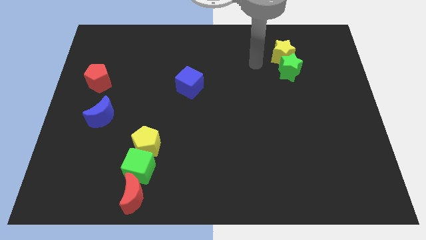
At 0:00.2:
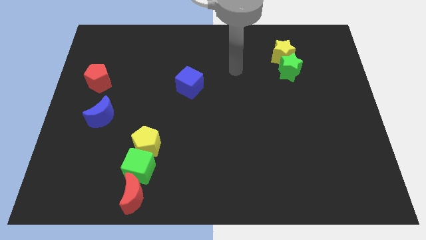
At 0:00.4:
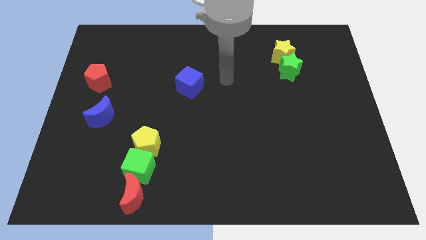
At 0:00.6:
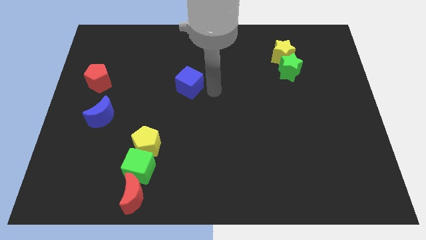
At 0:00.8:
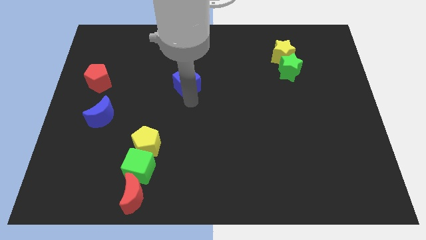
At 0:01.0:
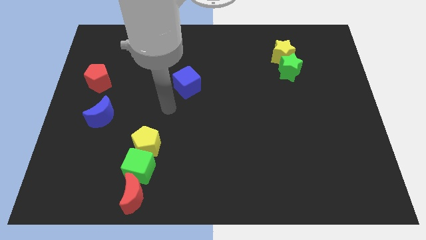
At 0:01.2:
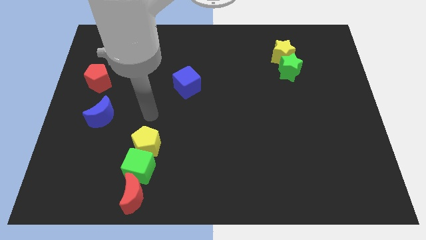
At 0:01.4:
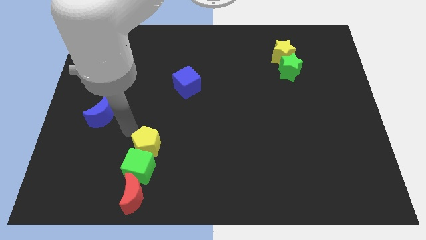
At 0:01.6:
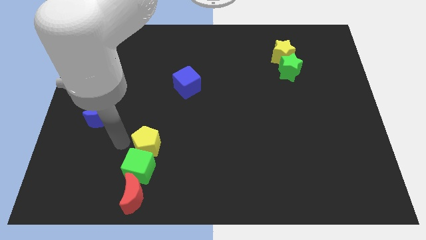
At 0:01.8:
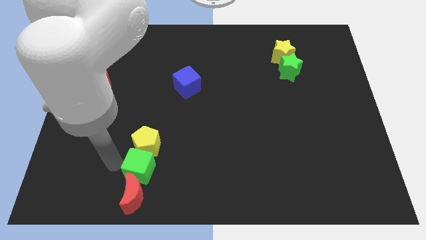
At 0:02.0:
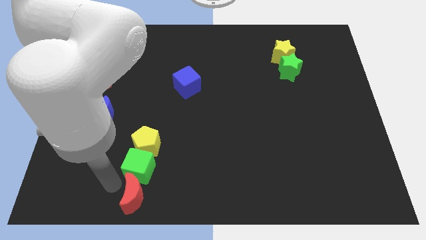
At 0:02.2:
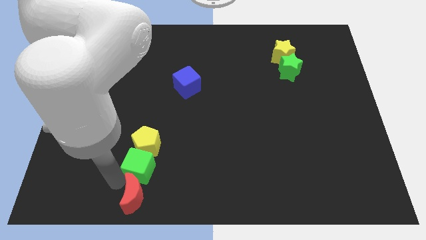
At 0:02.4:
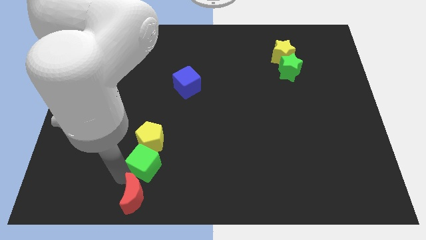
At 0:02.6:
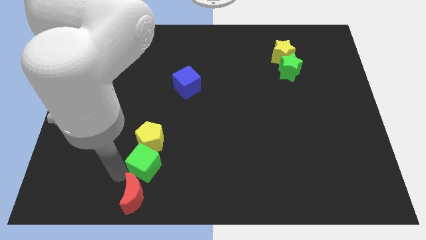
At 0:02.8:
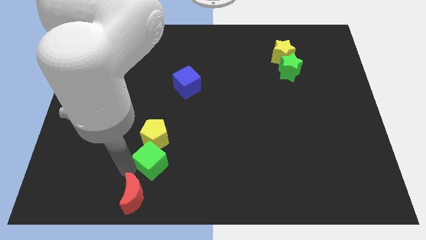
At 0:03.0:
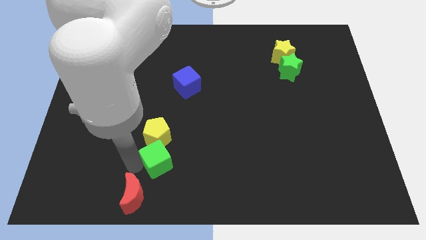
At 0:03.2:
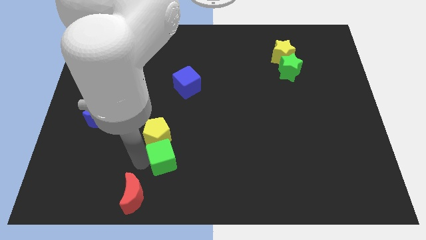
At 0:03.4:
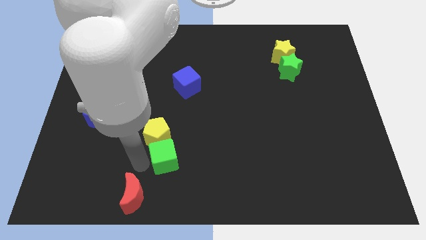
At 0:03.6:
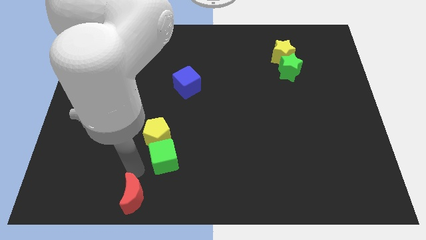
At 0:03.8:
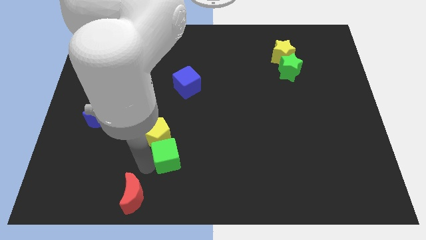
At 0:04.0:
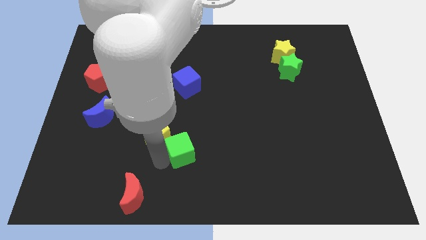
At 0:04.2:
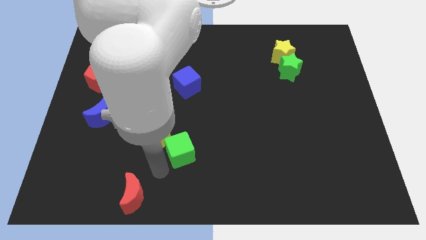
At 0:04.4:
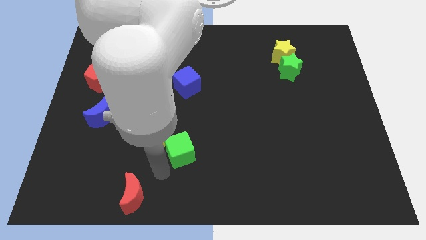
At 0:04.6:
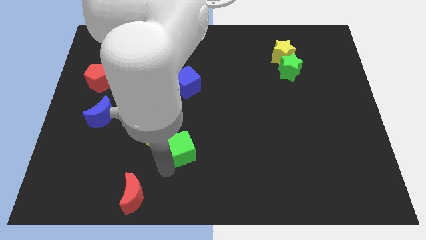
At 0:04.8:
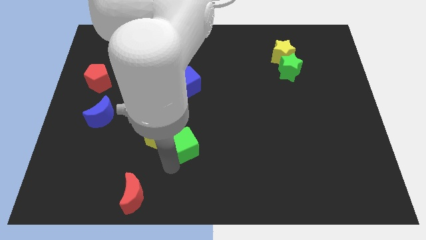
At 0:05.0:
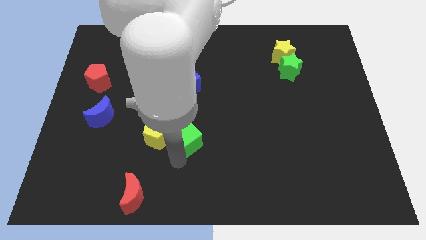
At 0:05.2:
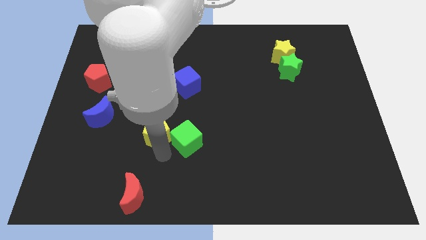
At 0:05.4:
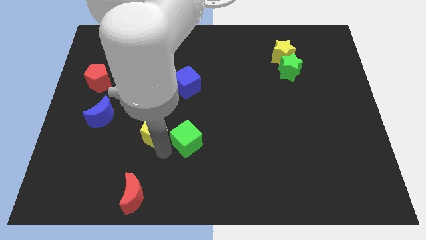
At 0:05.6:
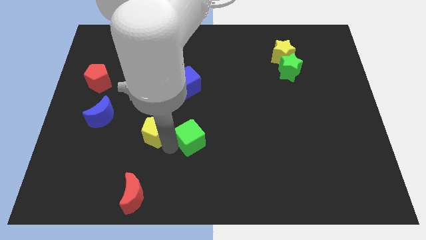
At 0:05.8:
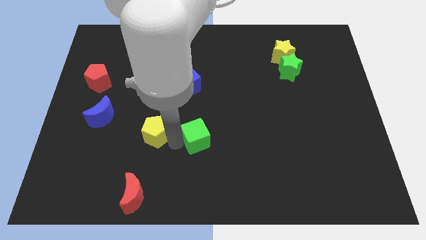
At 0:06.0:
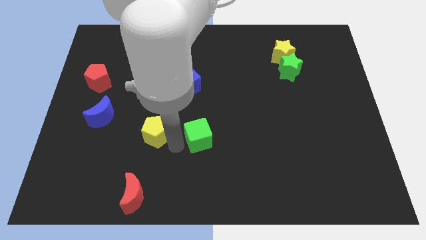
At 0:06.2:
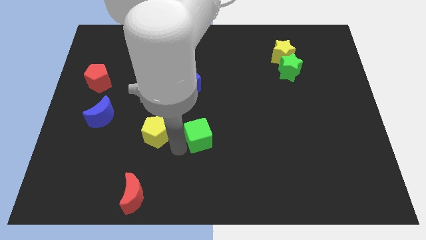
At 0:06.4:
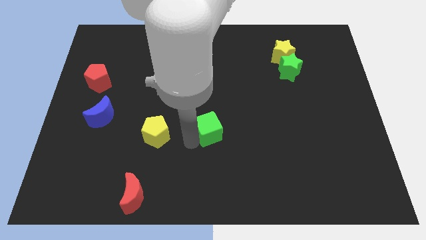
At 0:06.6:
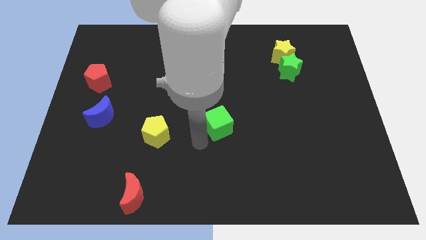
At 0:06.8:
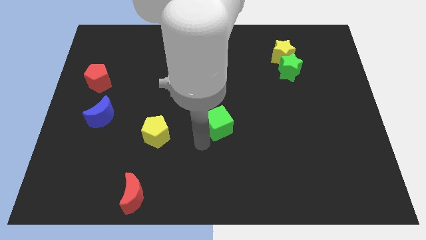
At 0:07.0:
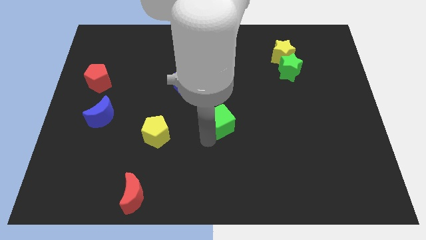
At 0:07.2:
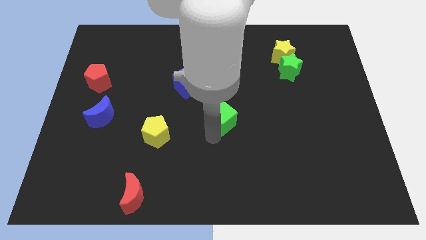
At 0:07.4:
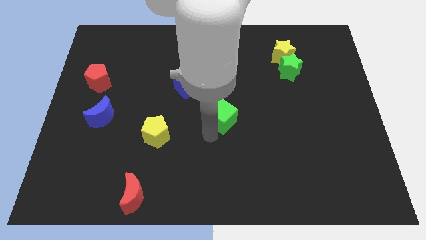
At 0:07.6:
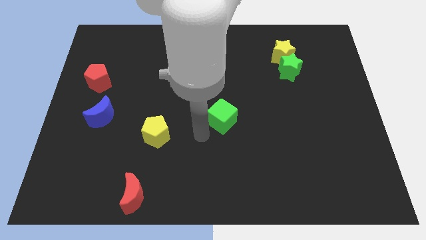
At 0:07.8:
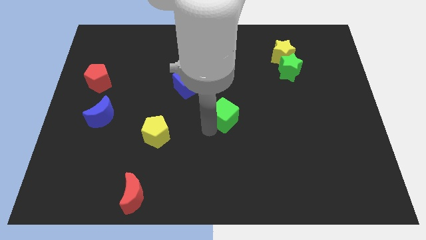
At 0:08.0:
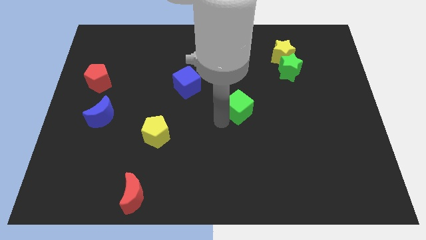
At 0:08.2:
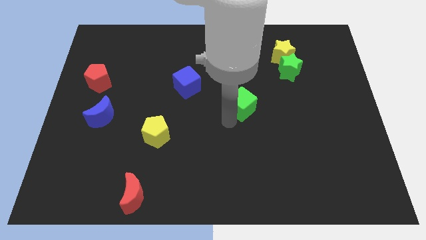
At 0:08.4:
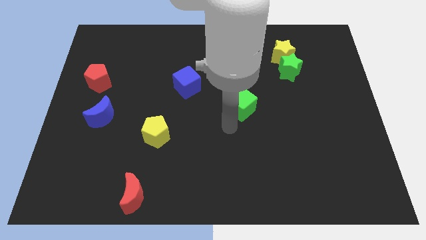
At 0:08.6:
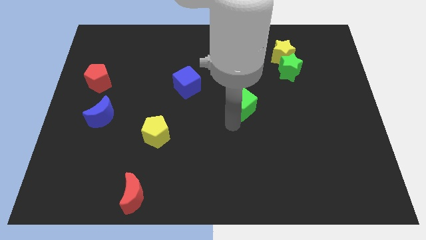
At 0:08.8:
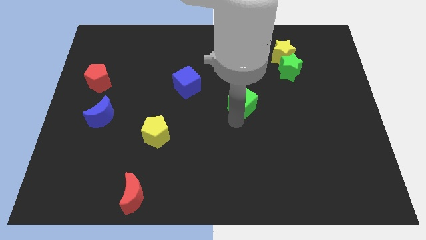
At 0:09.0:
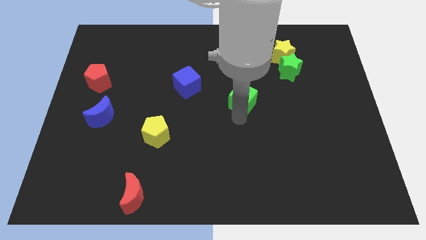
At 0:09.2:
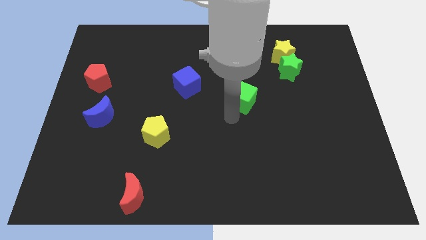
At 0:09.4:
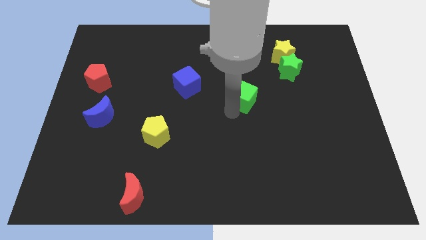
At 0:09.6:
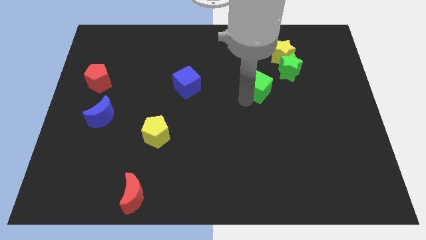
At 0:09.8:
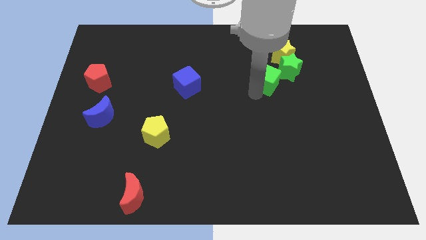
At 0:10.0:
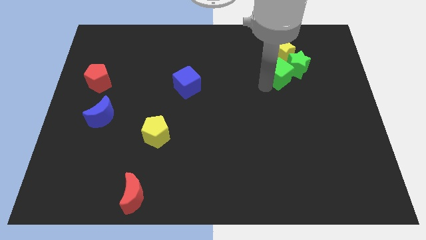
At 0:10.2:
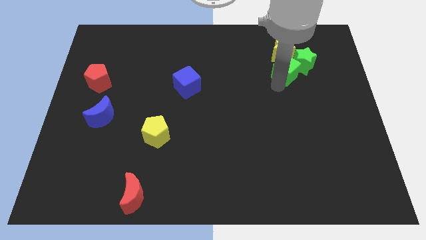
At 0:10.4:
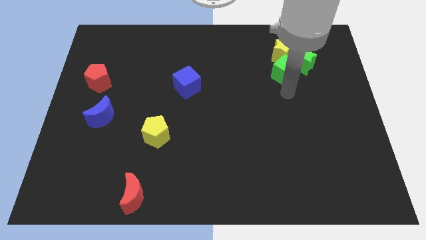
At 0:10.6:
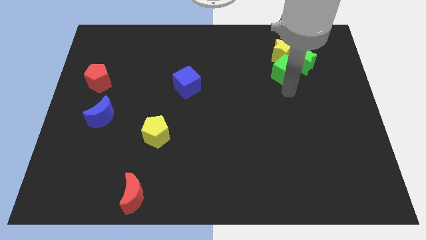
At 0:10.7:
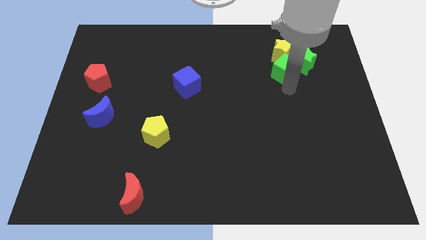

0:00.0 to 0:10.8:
slide the green cube towards the yellow star

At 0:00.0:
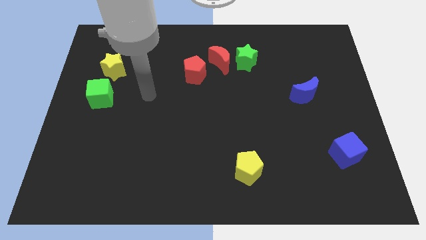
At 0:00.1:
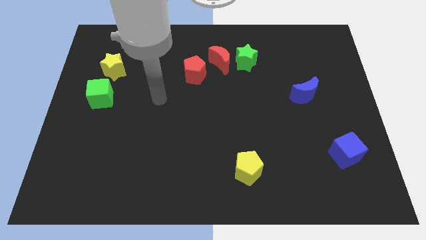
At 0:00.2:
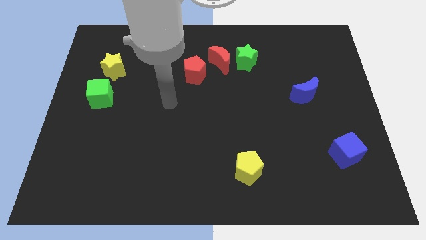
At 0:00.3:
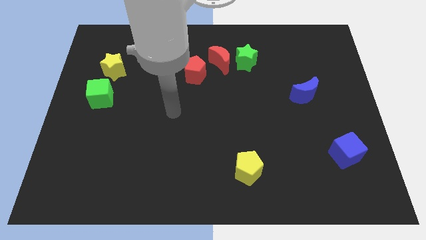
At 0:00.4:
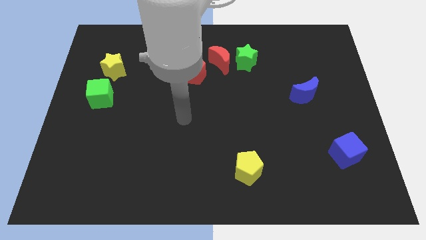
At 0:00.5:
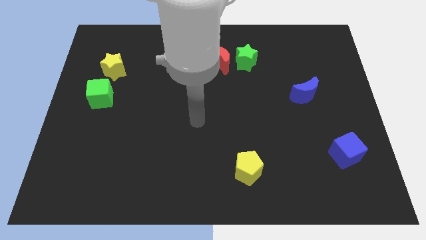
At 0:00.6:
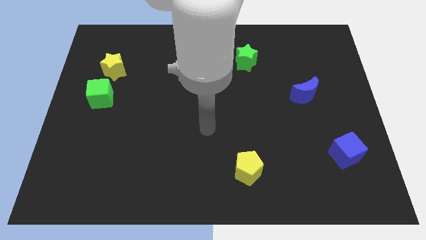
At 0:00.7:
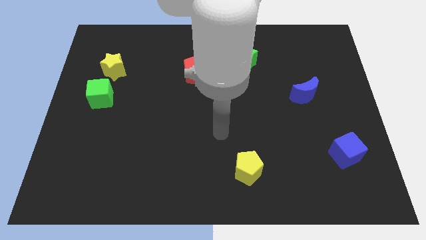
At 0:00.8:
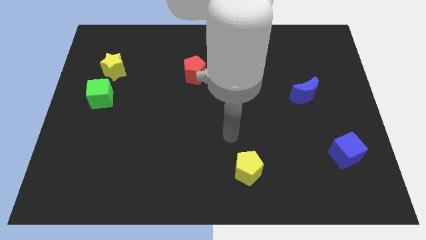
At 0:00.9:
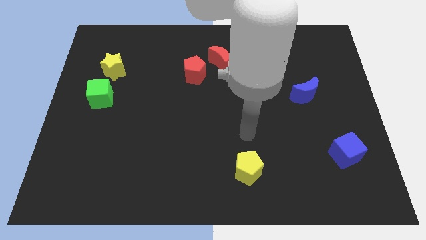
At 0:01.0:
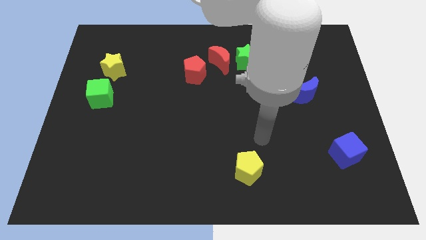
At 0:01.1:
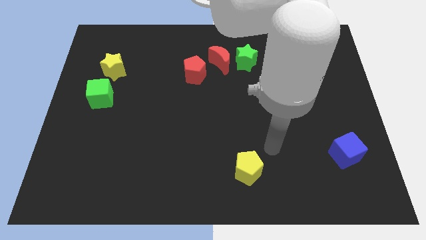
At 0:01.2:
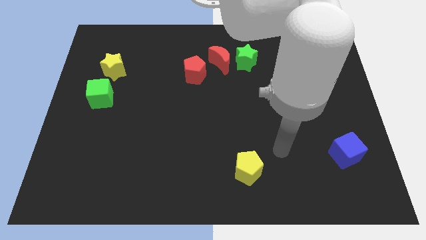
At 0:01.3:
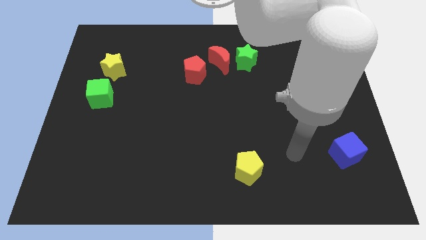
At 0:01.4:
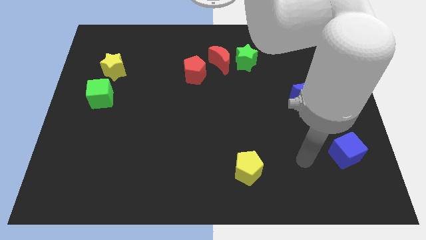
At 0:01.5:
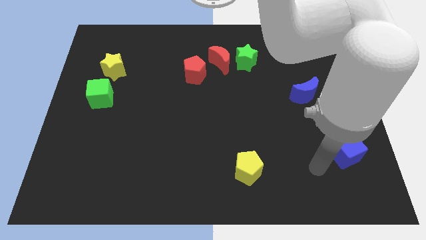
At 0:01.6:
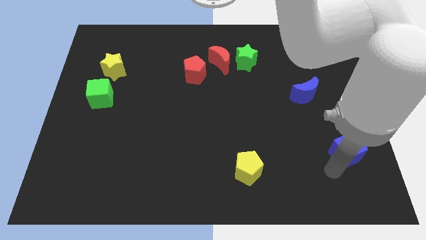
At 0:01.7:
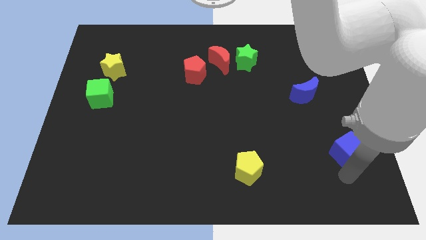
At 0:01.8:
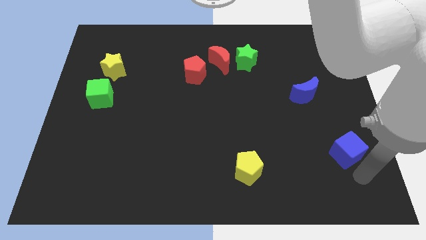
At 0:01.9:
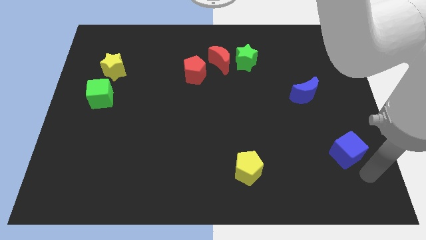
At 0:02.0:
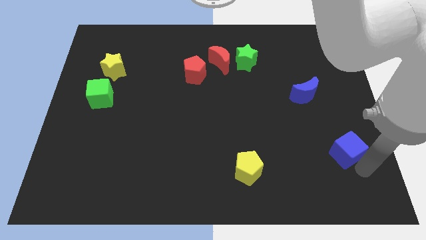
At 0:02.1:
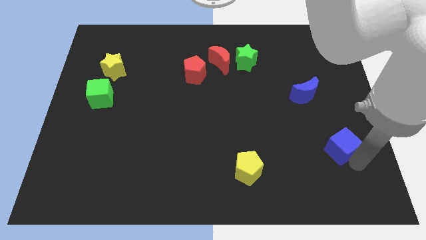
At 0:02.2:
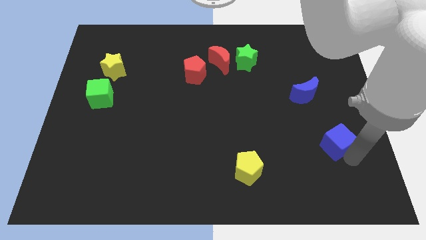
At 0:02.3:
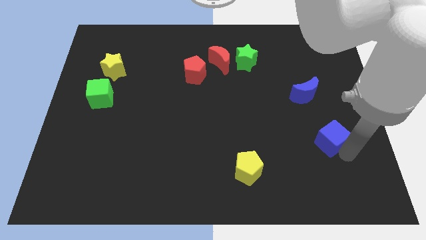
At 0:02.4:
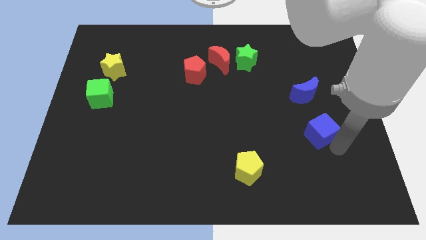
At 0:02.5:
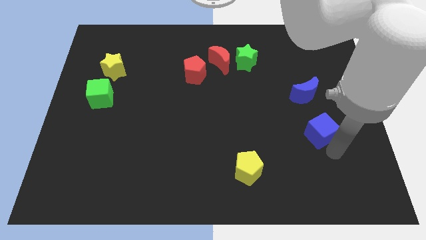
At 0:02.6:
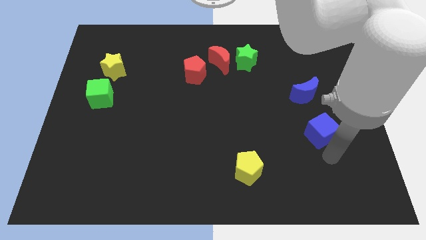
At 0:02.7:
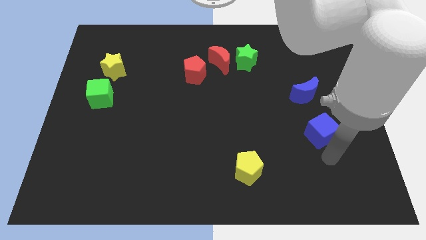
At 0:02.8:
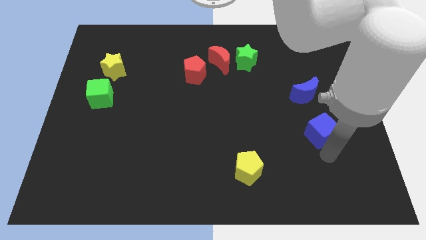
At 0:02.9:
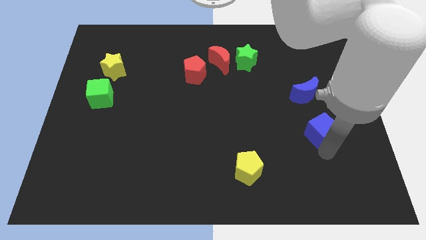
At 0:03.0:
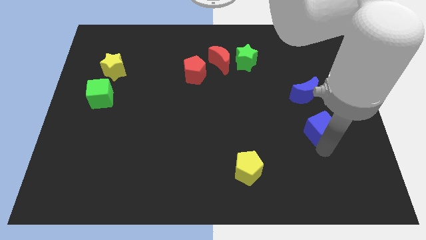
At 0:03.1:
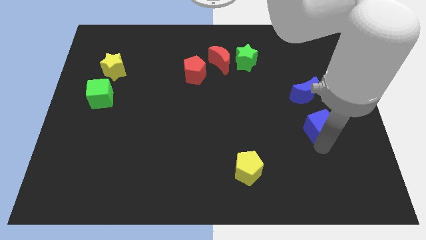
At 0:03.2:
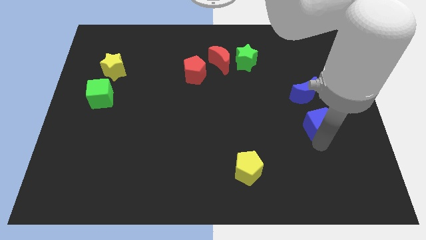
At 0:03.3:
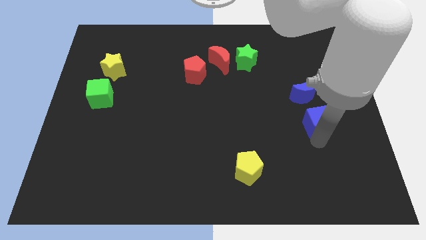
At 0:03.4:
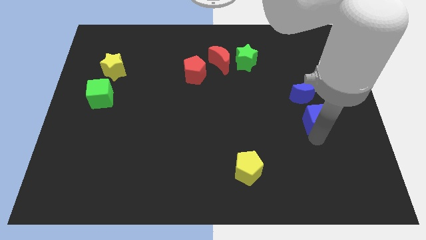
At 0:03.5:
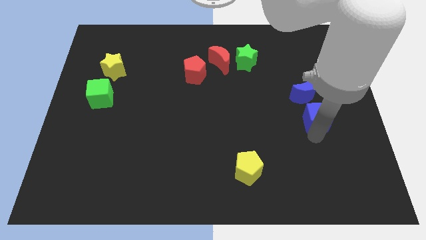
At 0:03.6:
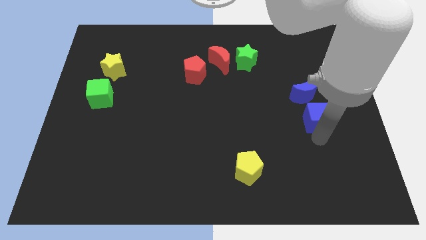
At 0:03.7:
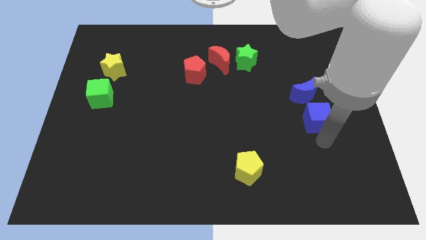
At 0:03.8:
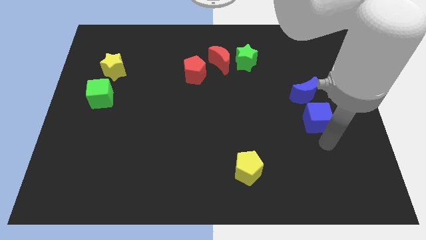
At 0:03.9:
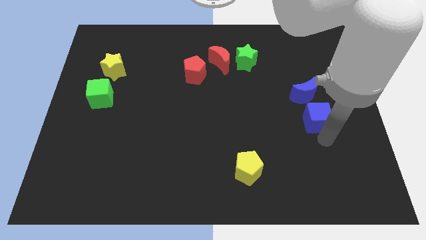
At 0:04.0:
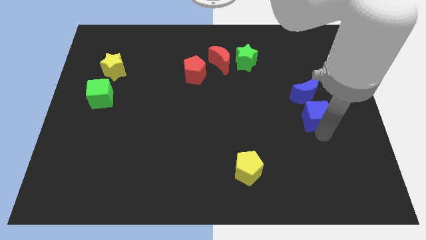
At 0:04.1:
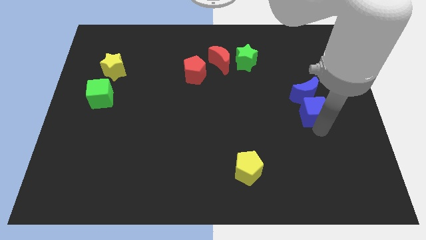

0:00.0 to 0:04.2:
put the blue cube close to the blue moon
